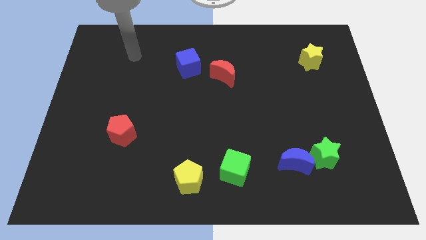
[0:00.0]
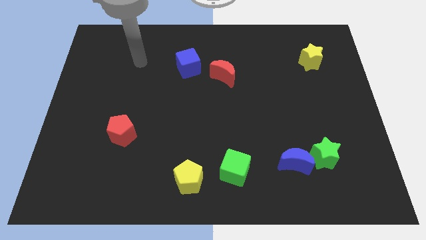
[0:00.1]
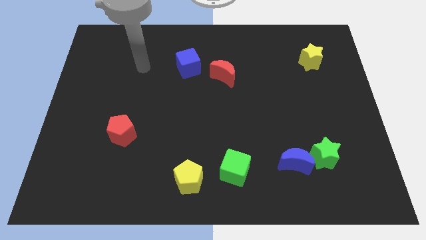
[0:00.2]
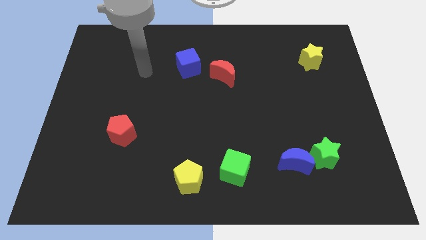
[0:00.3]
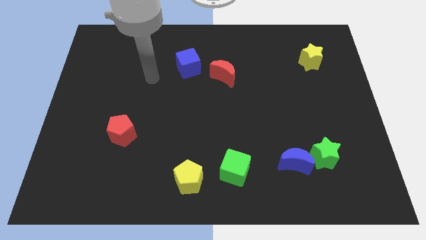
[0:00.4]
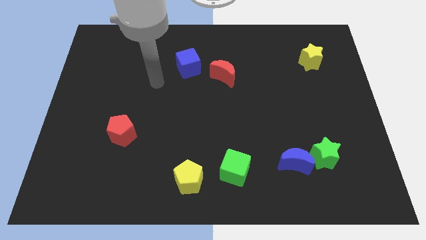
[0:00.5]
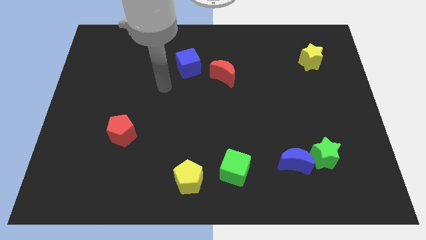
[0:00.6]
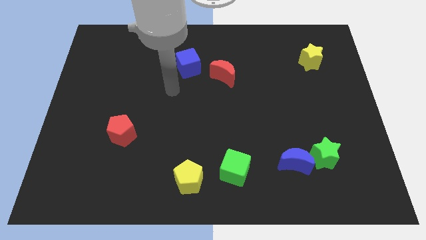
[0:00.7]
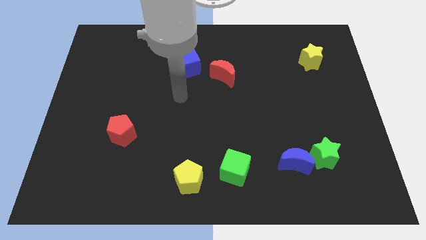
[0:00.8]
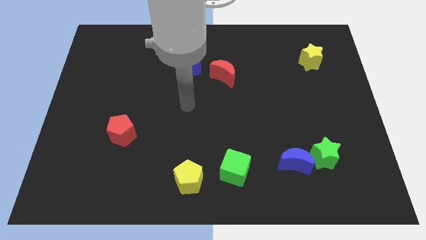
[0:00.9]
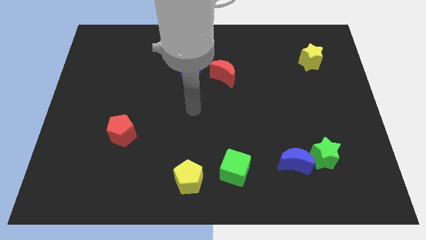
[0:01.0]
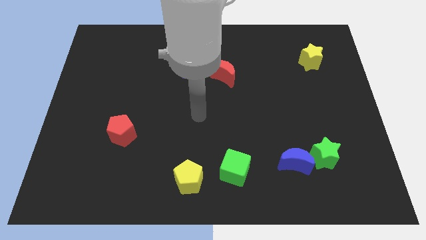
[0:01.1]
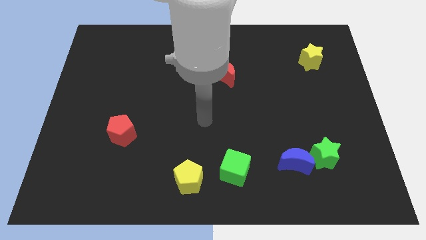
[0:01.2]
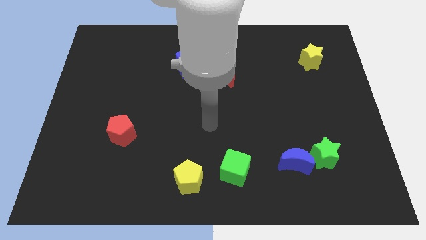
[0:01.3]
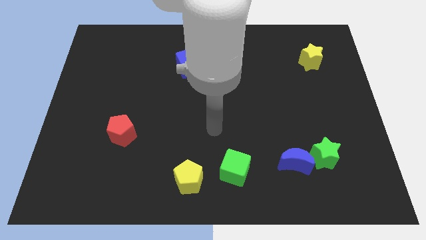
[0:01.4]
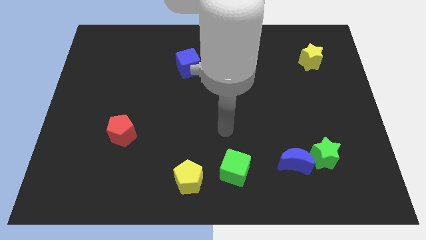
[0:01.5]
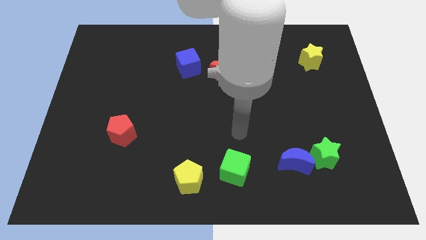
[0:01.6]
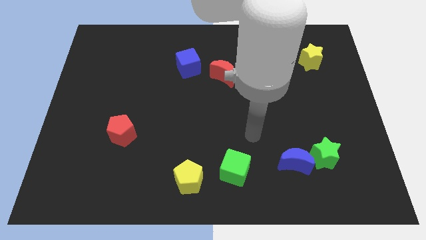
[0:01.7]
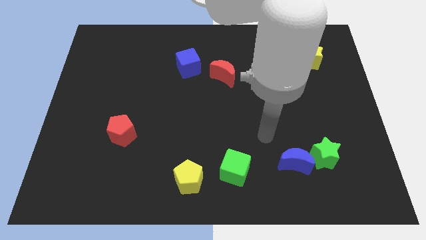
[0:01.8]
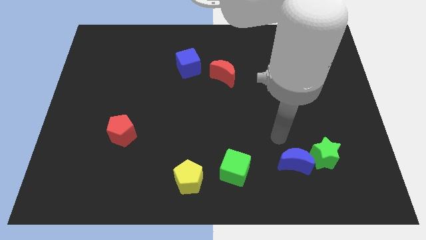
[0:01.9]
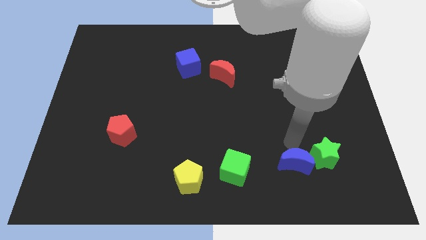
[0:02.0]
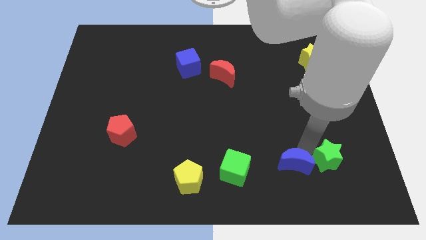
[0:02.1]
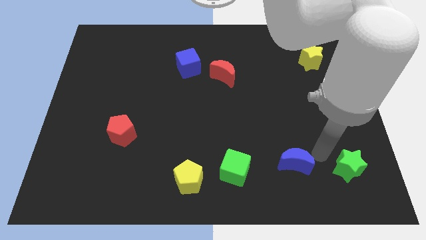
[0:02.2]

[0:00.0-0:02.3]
move the blue moon away from the green star

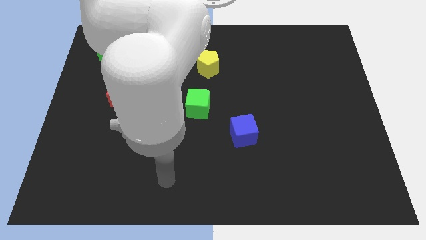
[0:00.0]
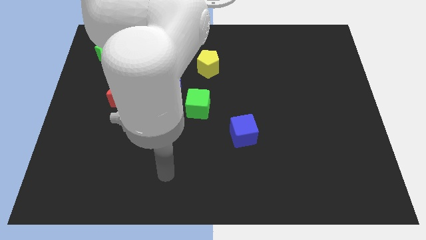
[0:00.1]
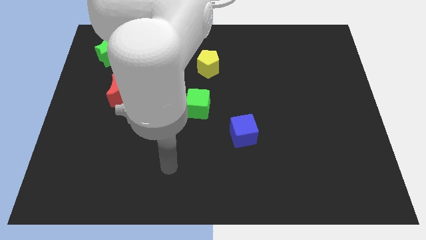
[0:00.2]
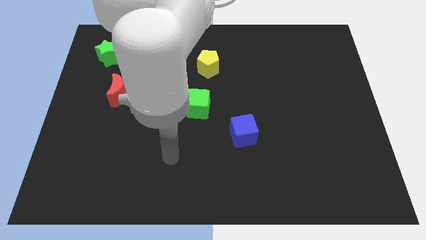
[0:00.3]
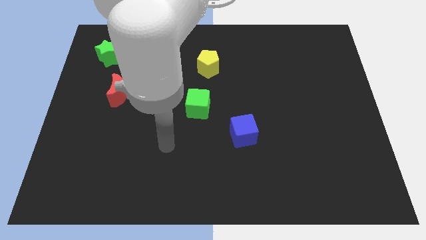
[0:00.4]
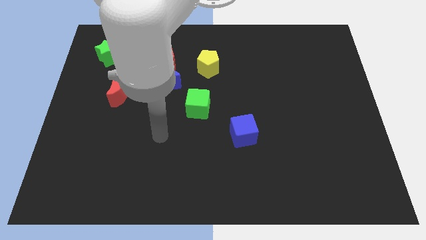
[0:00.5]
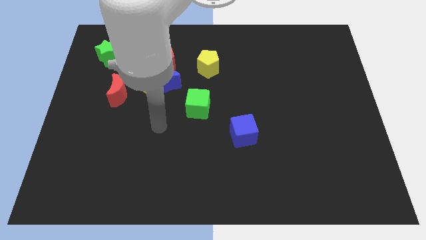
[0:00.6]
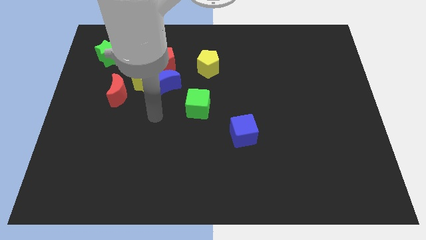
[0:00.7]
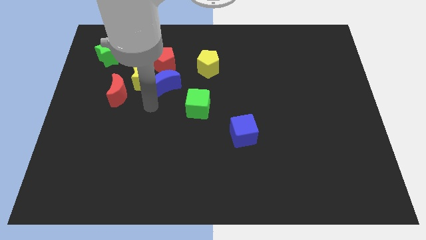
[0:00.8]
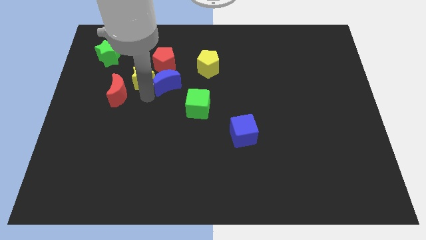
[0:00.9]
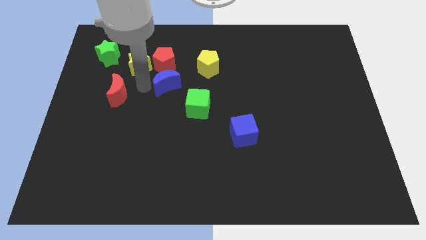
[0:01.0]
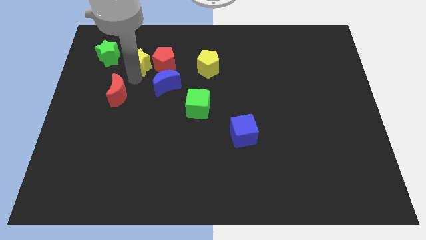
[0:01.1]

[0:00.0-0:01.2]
pull the red moon apart from the yellow star

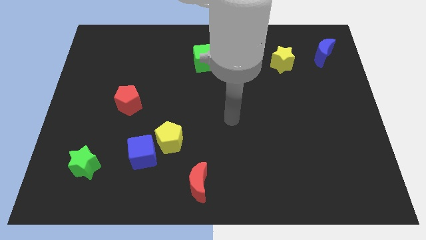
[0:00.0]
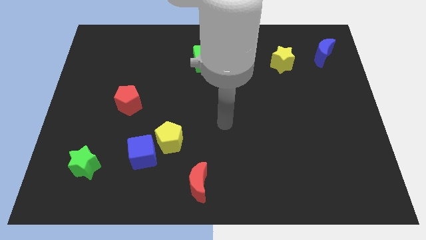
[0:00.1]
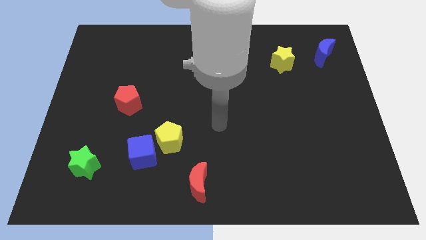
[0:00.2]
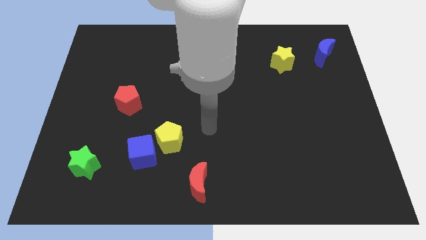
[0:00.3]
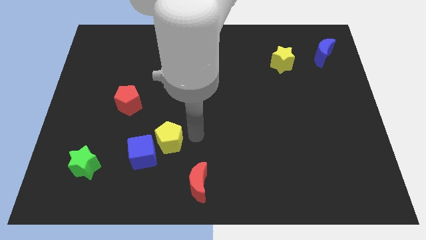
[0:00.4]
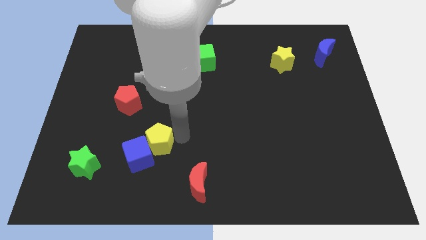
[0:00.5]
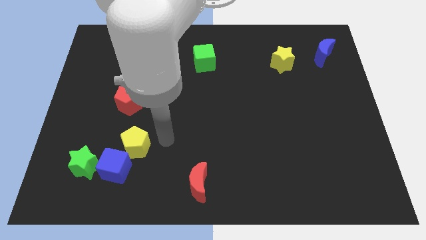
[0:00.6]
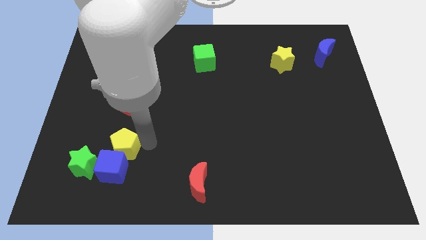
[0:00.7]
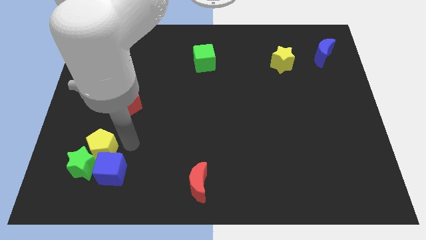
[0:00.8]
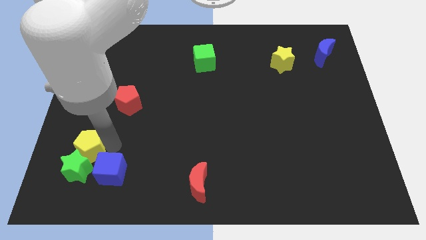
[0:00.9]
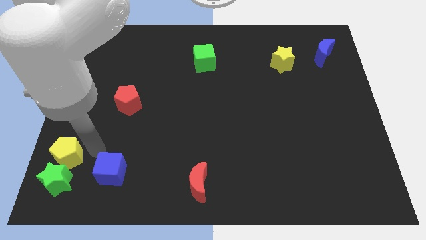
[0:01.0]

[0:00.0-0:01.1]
pull the blue cube apart from the yellow pentagon

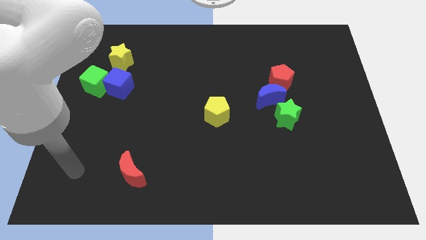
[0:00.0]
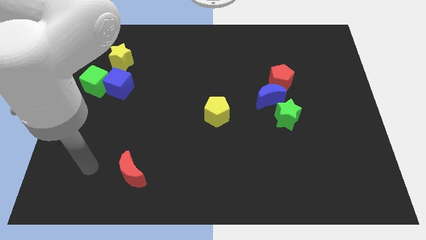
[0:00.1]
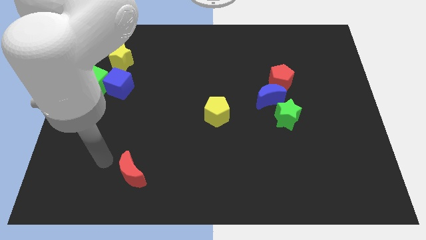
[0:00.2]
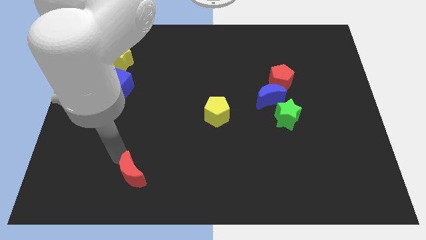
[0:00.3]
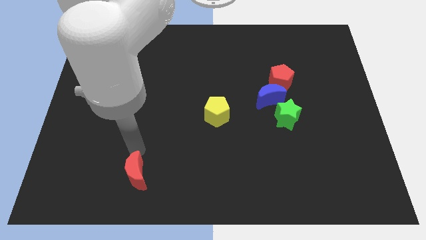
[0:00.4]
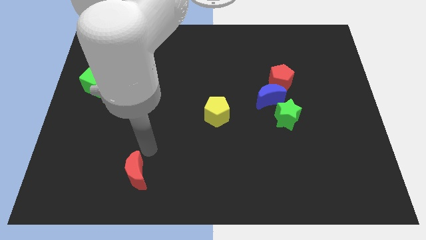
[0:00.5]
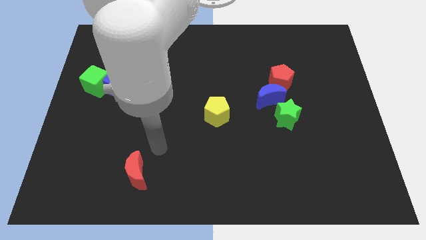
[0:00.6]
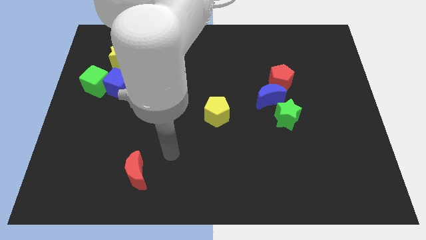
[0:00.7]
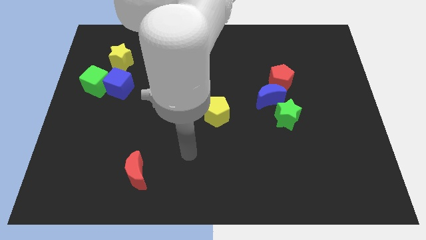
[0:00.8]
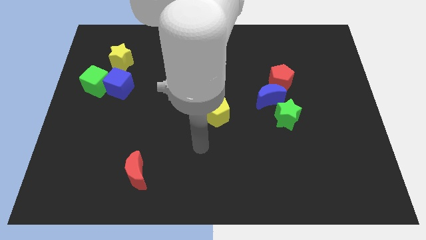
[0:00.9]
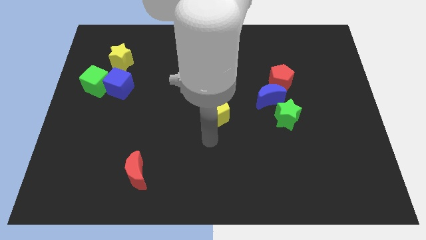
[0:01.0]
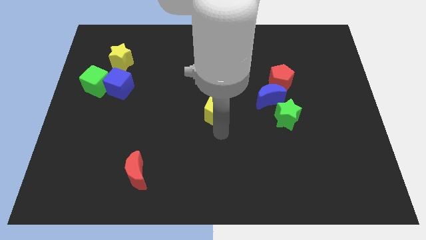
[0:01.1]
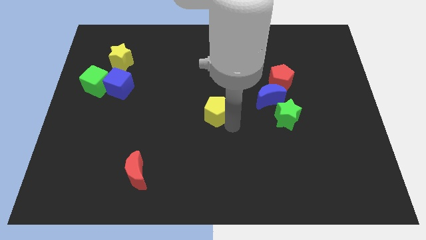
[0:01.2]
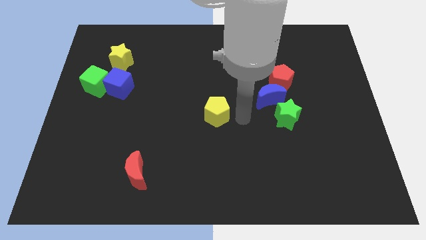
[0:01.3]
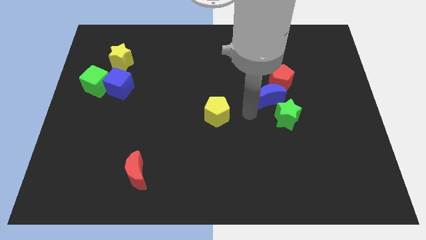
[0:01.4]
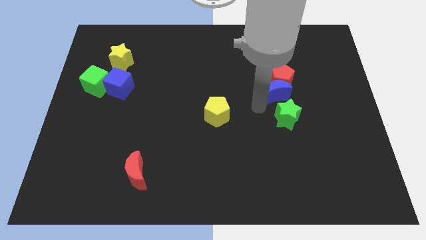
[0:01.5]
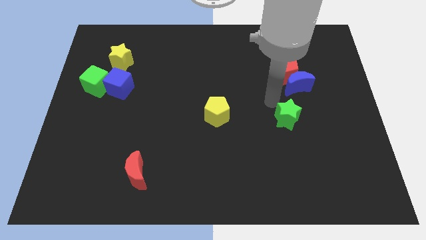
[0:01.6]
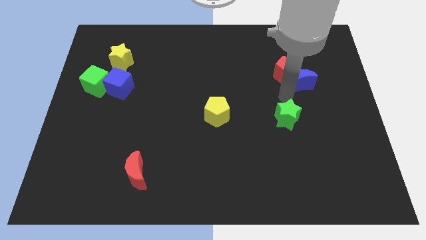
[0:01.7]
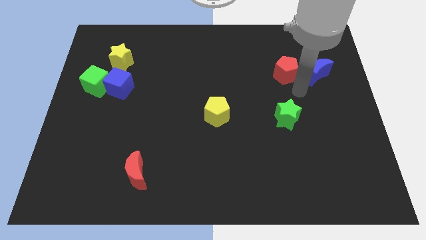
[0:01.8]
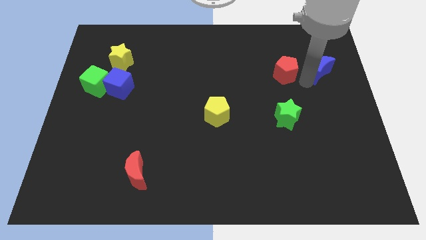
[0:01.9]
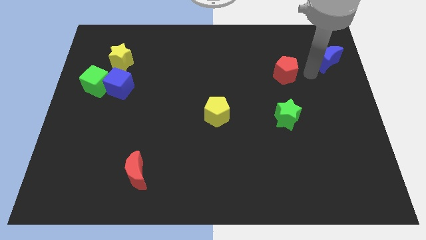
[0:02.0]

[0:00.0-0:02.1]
separate the red pentagon from the blue moon

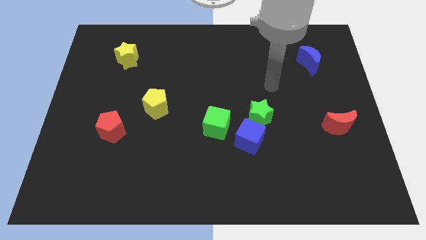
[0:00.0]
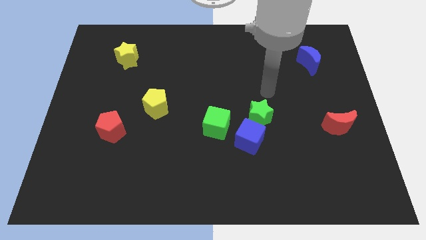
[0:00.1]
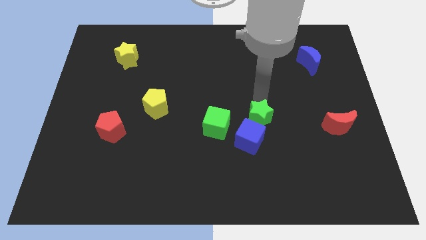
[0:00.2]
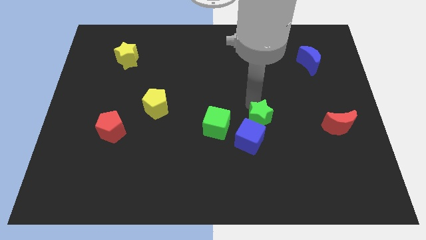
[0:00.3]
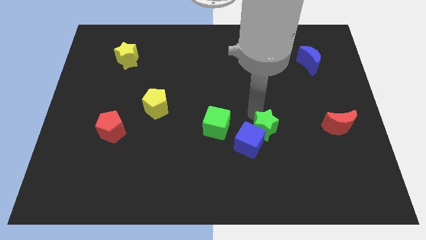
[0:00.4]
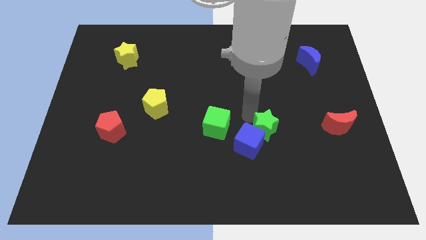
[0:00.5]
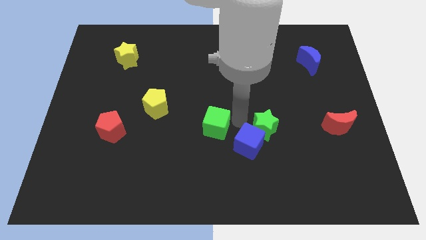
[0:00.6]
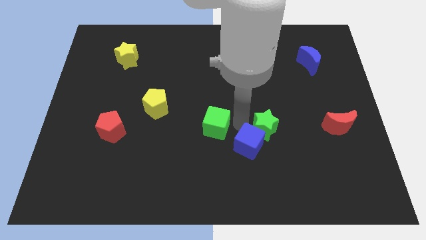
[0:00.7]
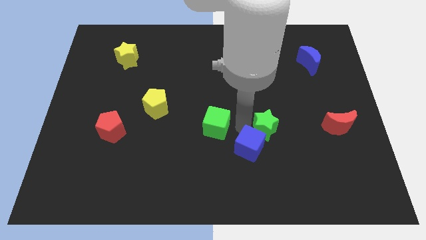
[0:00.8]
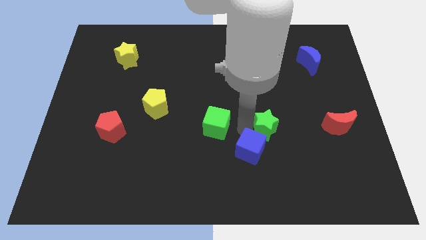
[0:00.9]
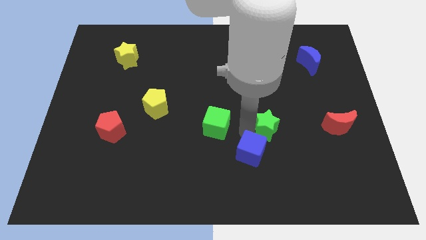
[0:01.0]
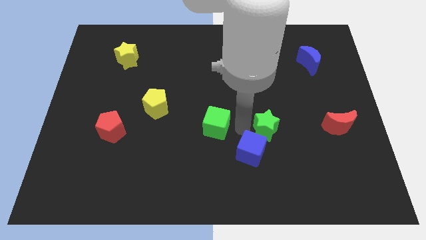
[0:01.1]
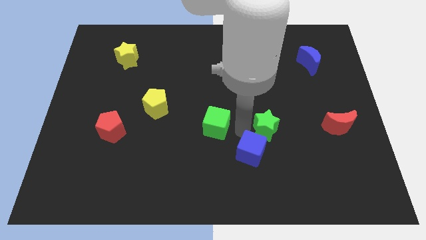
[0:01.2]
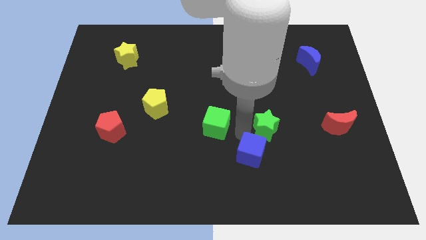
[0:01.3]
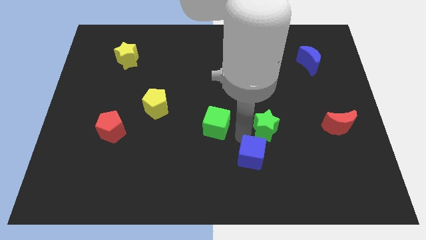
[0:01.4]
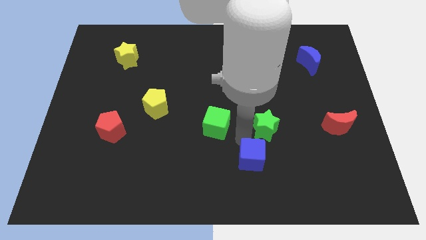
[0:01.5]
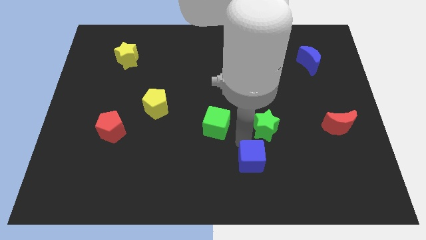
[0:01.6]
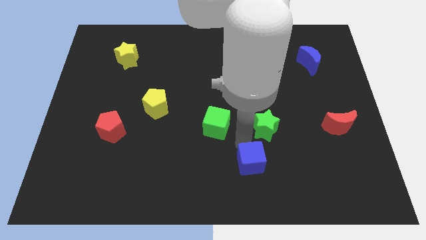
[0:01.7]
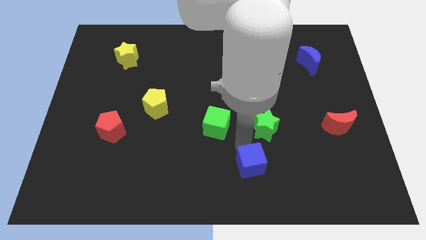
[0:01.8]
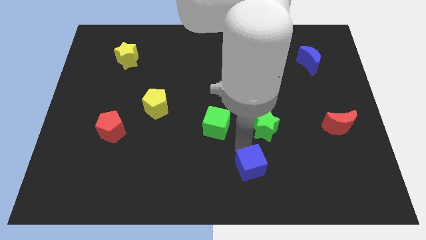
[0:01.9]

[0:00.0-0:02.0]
pull the blue cube apart from the green star and green cube

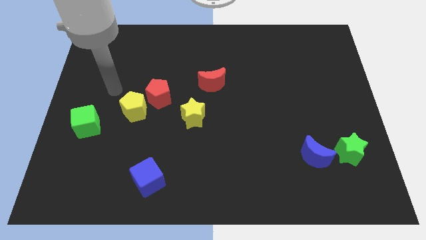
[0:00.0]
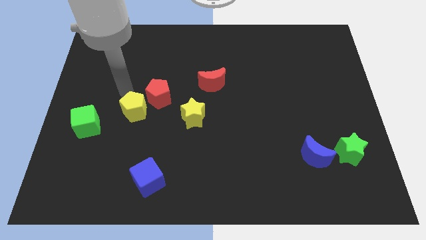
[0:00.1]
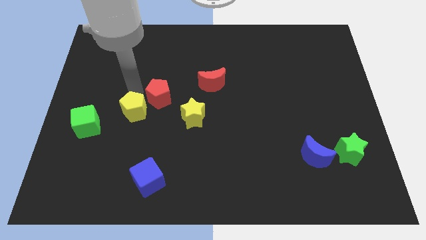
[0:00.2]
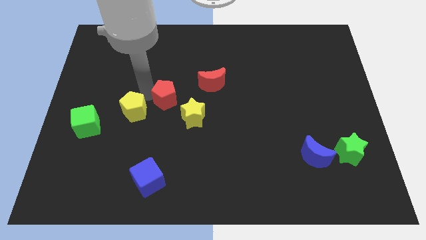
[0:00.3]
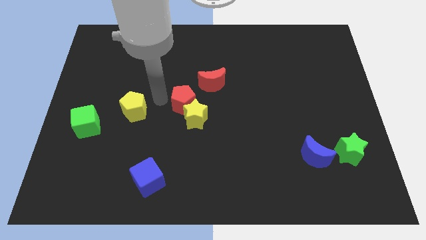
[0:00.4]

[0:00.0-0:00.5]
move the yellow pentagon away from the red pentagon
